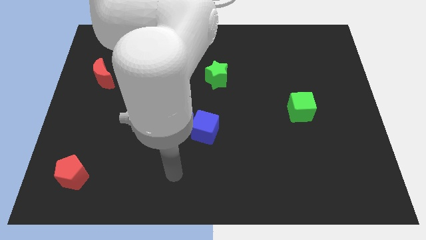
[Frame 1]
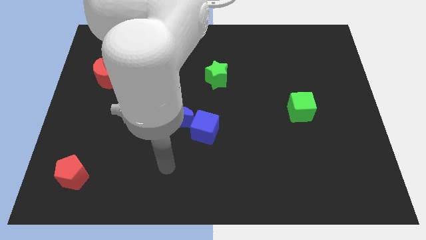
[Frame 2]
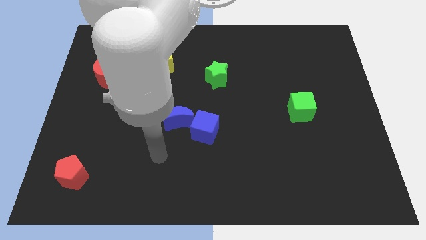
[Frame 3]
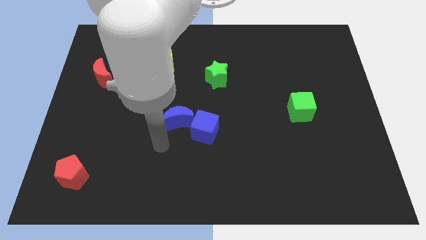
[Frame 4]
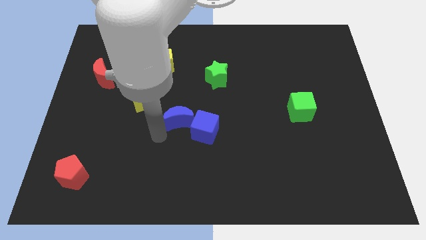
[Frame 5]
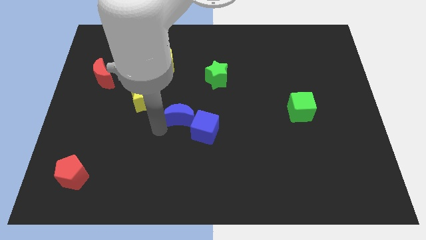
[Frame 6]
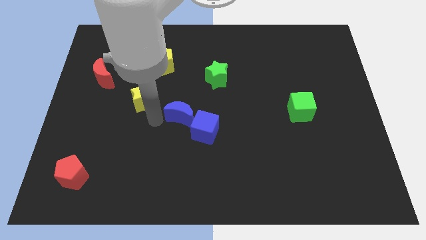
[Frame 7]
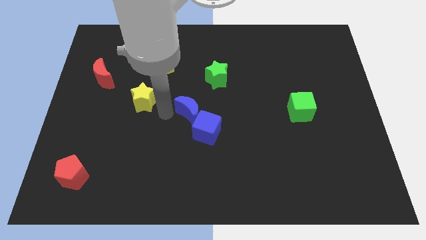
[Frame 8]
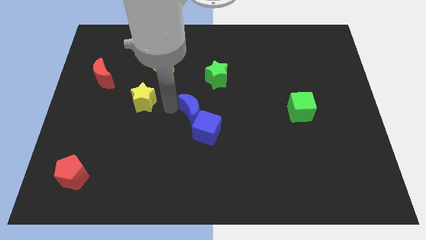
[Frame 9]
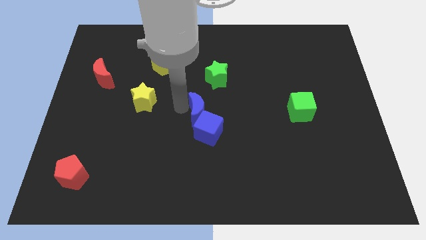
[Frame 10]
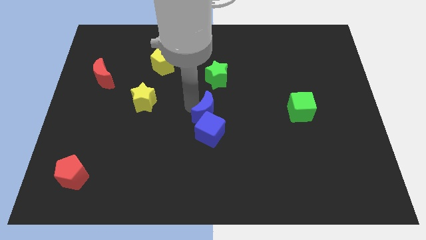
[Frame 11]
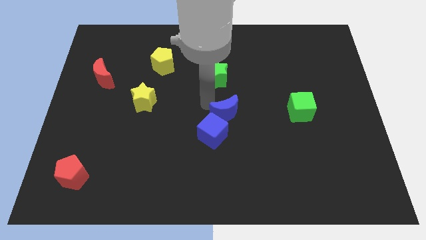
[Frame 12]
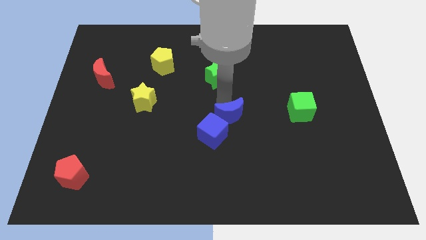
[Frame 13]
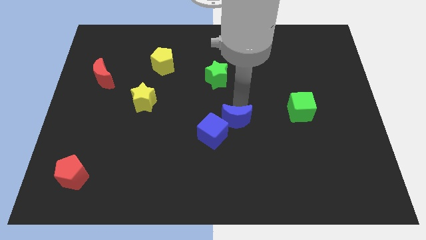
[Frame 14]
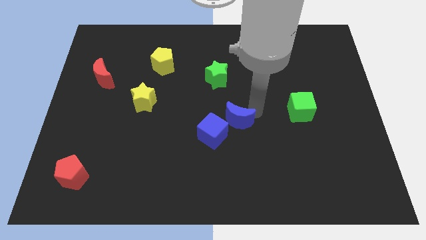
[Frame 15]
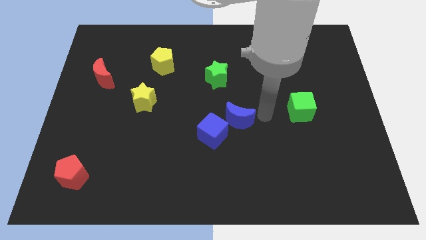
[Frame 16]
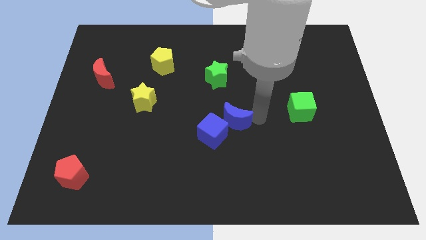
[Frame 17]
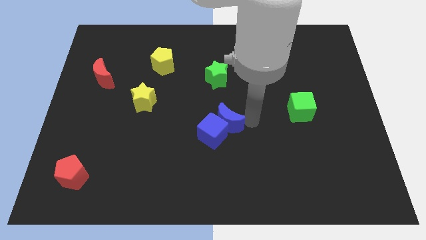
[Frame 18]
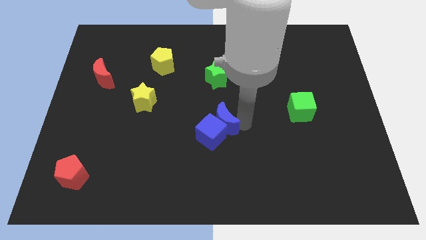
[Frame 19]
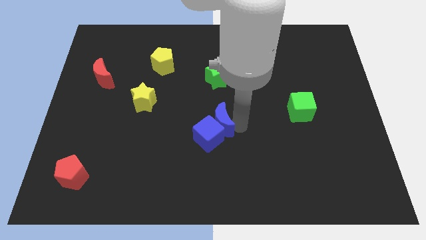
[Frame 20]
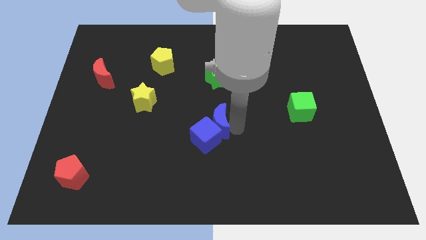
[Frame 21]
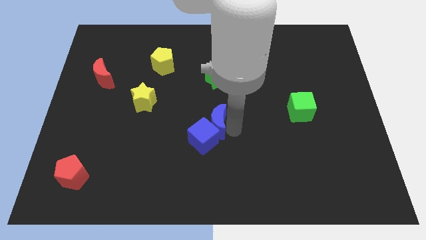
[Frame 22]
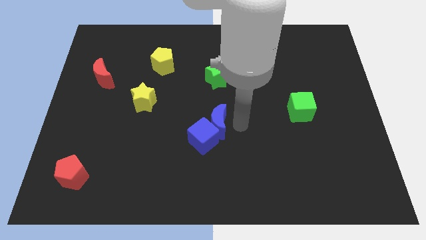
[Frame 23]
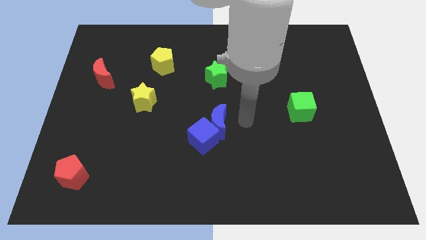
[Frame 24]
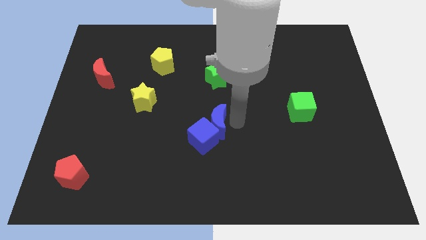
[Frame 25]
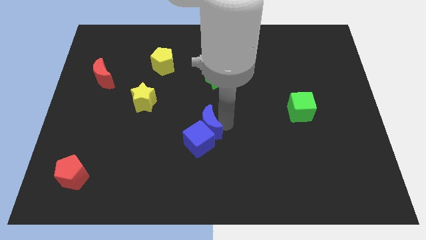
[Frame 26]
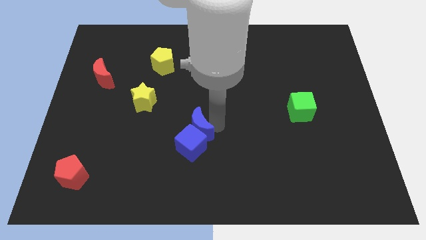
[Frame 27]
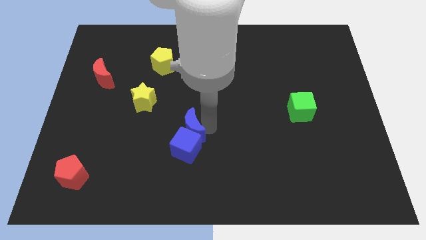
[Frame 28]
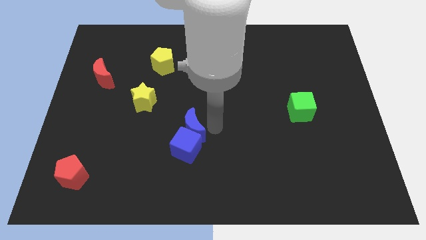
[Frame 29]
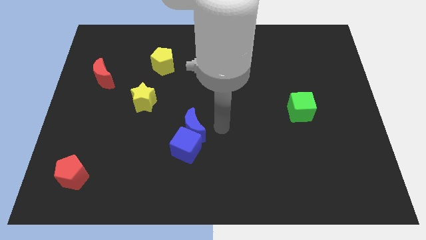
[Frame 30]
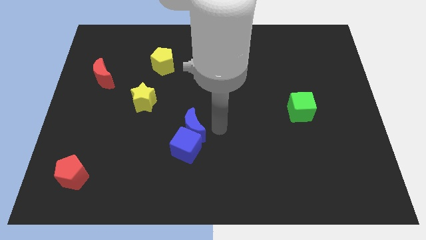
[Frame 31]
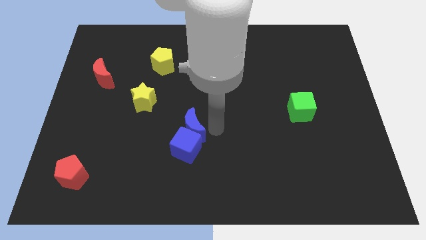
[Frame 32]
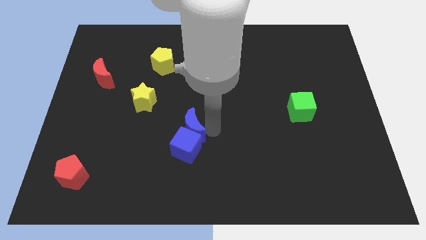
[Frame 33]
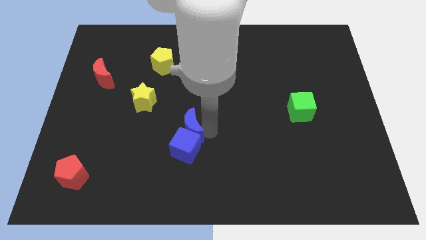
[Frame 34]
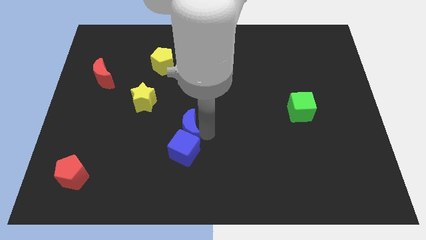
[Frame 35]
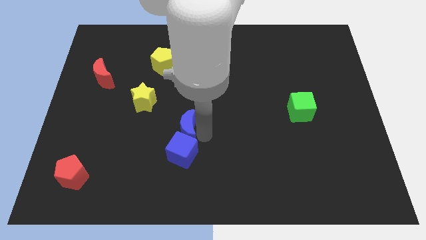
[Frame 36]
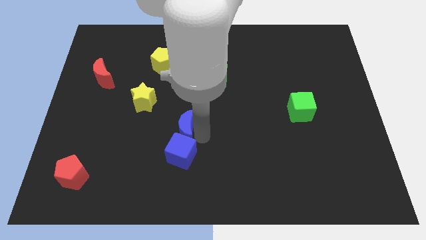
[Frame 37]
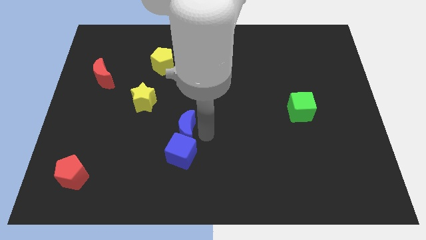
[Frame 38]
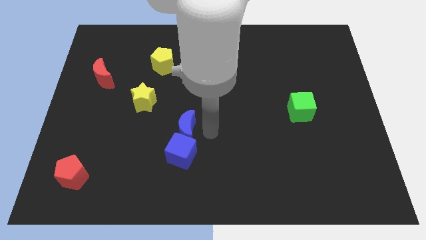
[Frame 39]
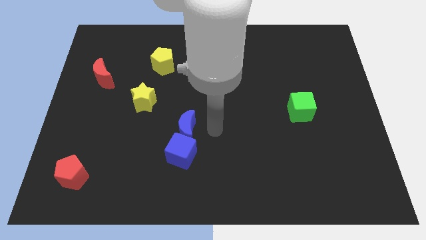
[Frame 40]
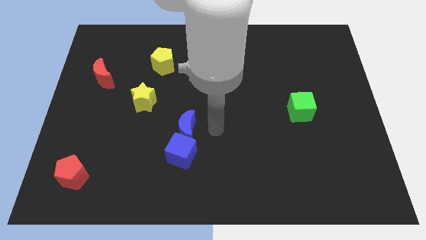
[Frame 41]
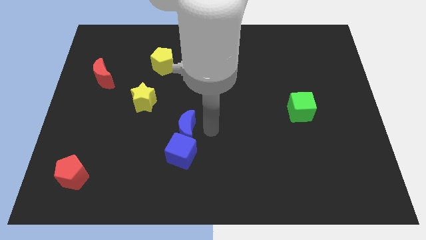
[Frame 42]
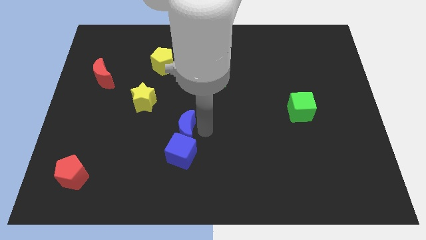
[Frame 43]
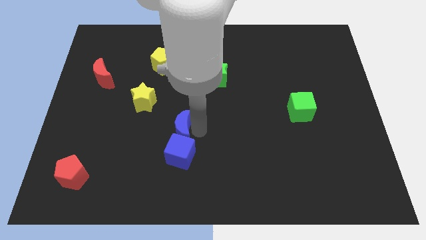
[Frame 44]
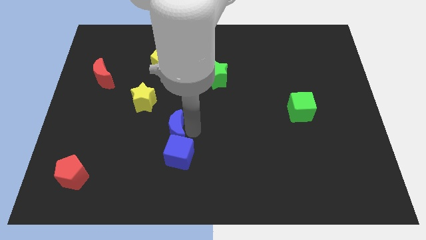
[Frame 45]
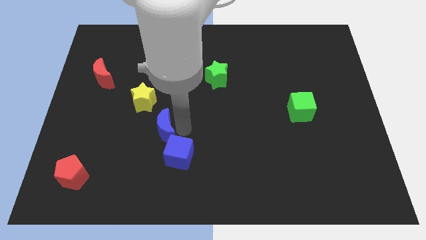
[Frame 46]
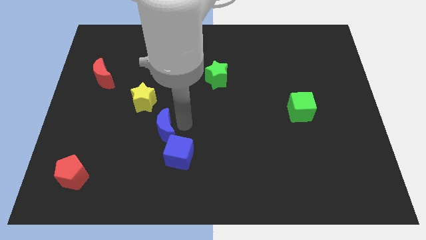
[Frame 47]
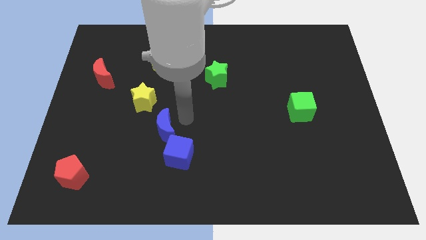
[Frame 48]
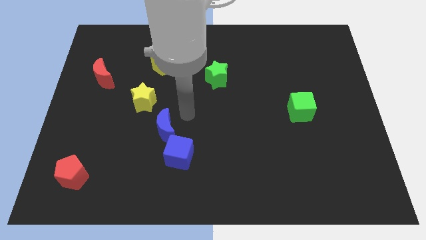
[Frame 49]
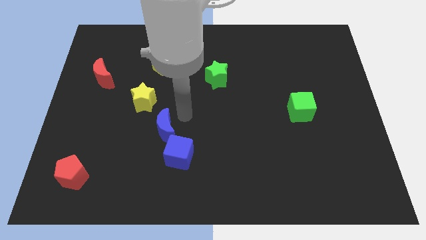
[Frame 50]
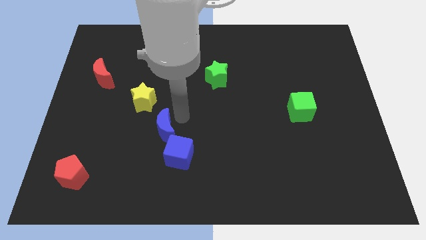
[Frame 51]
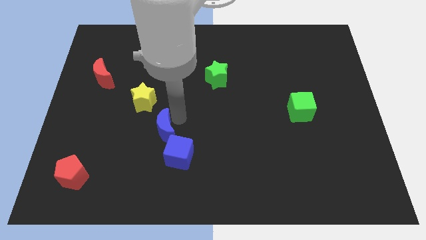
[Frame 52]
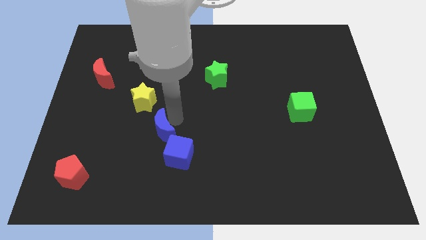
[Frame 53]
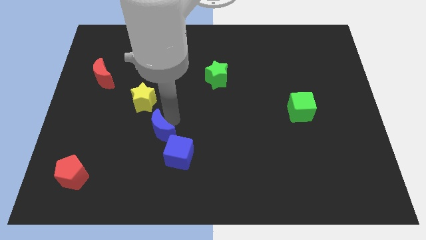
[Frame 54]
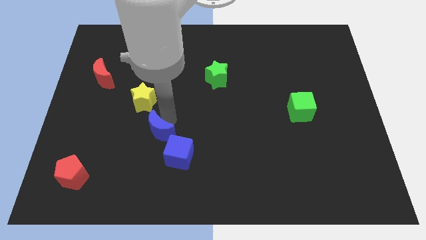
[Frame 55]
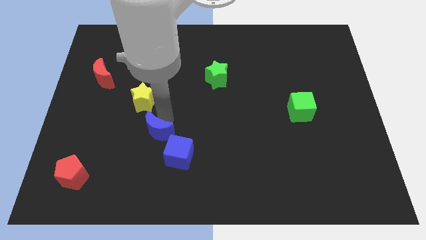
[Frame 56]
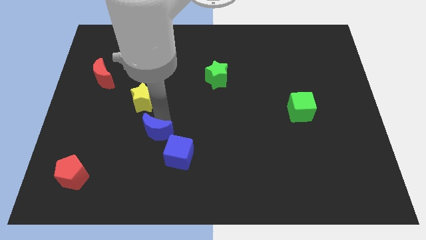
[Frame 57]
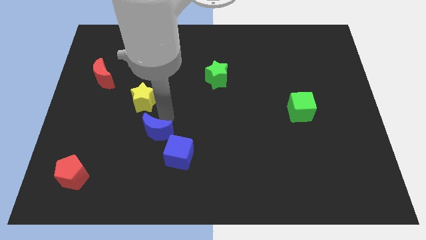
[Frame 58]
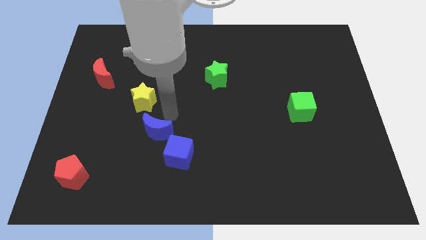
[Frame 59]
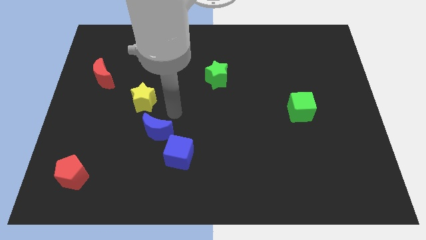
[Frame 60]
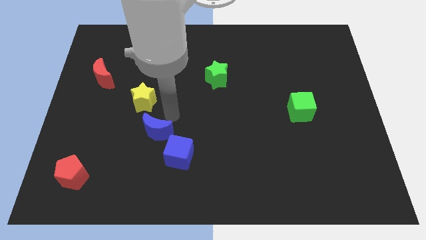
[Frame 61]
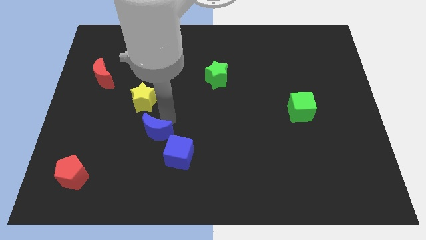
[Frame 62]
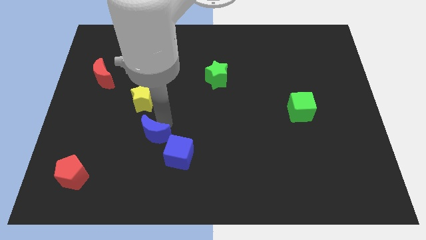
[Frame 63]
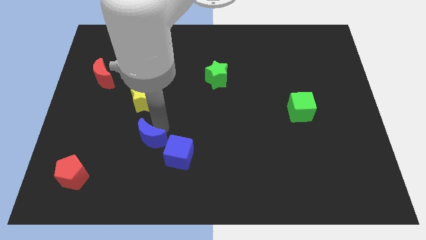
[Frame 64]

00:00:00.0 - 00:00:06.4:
slide the blue moon a bit downwards and then left

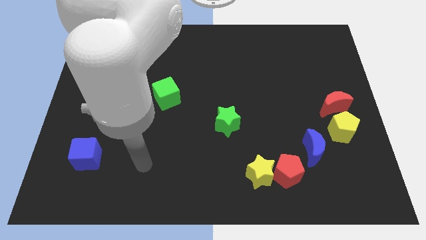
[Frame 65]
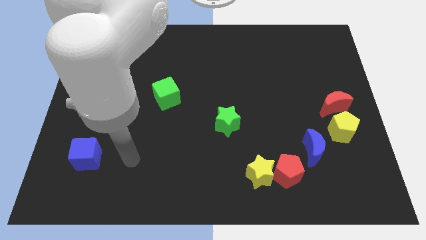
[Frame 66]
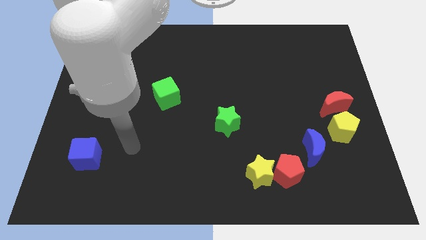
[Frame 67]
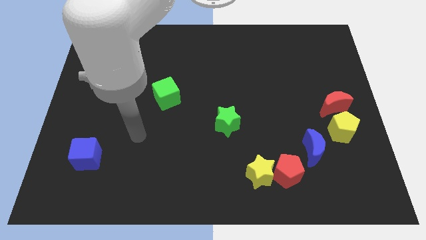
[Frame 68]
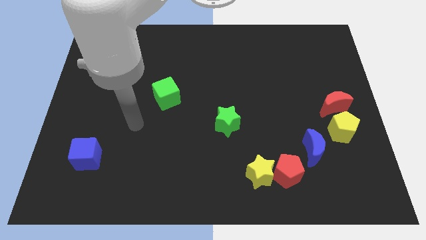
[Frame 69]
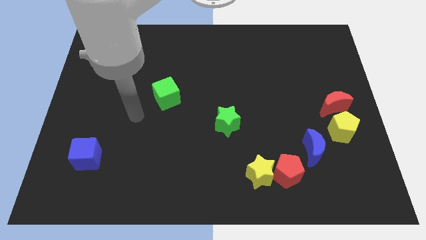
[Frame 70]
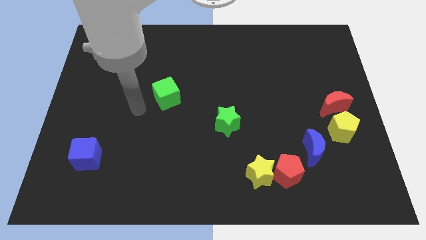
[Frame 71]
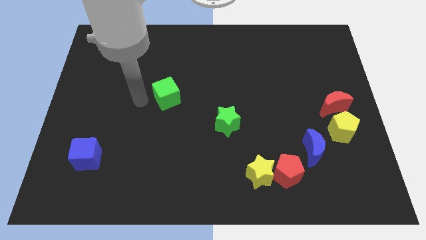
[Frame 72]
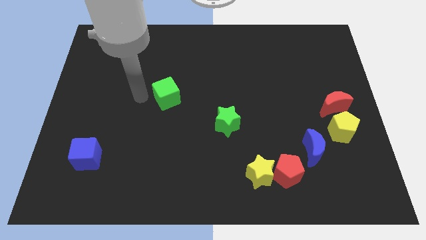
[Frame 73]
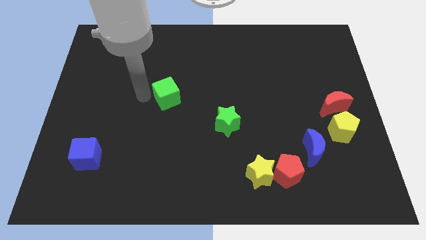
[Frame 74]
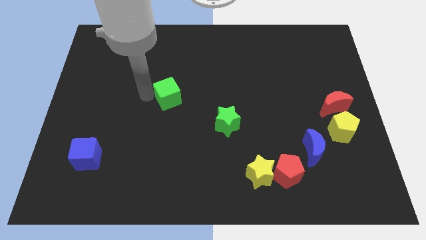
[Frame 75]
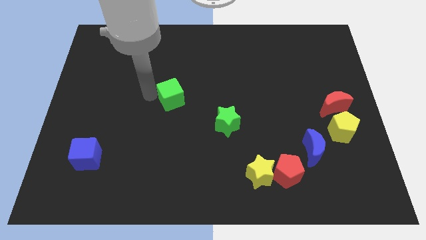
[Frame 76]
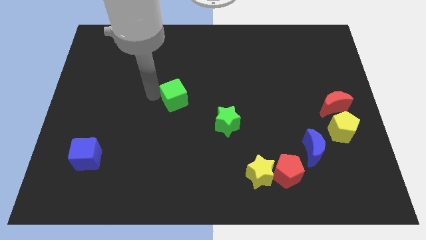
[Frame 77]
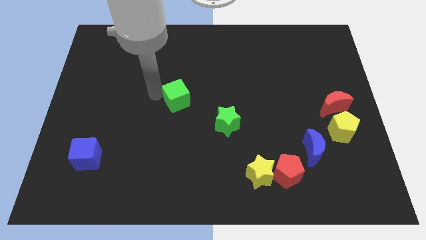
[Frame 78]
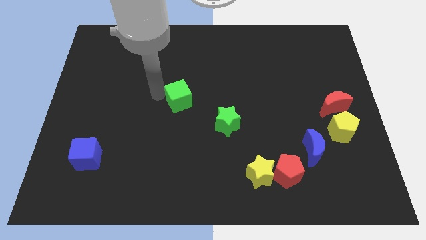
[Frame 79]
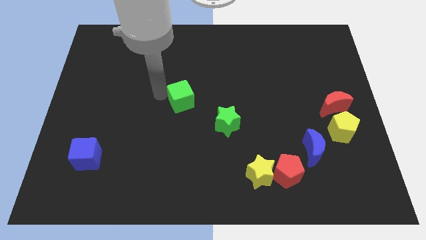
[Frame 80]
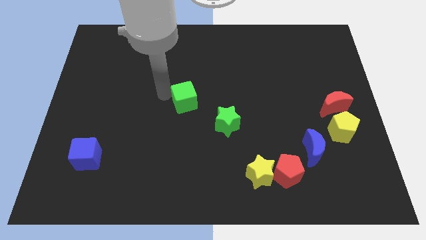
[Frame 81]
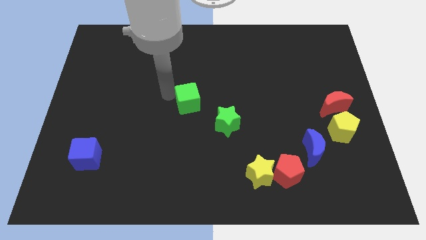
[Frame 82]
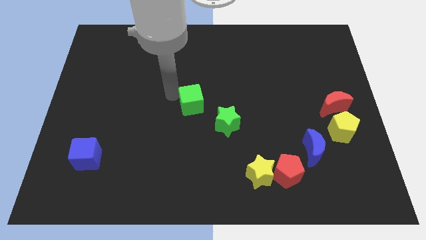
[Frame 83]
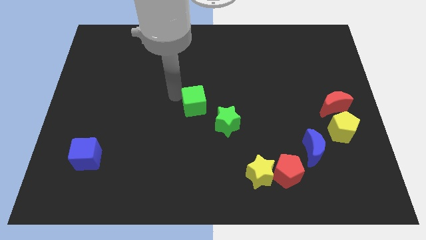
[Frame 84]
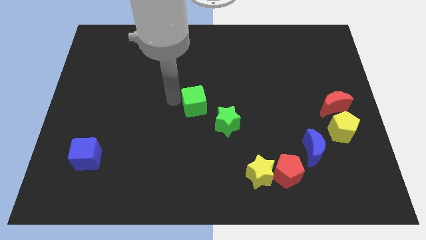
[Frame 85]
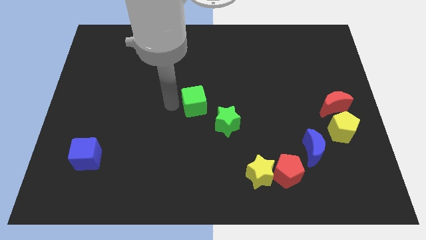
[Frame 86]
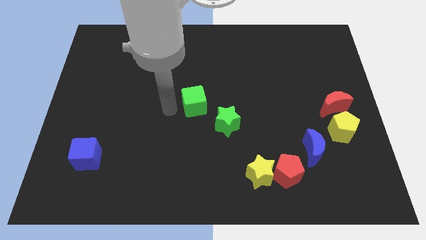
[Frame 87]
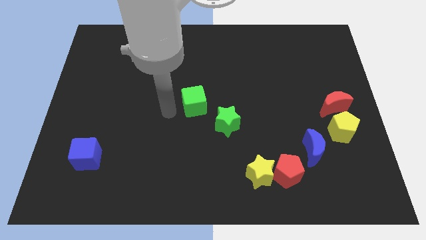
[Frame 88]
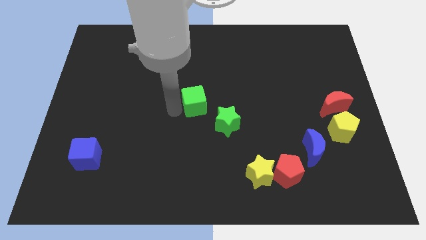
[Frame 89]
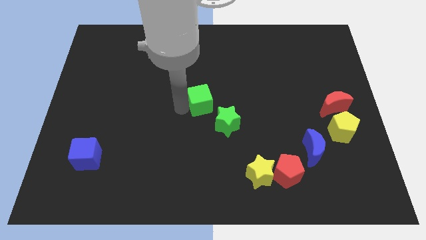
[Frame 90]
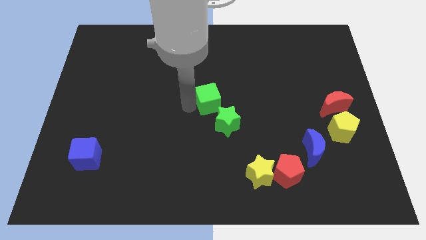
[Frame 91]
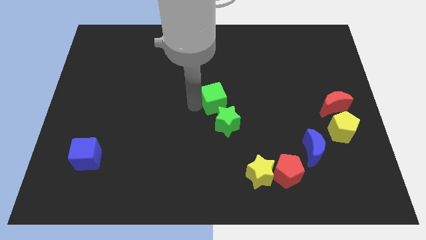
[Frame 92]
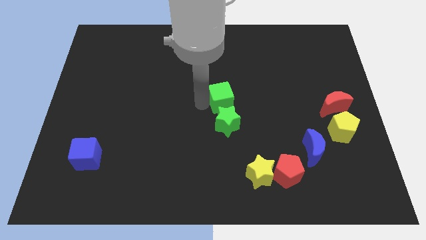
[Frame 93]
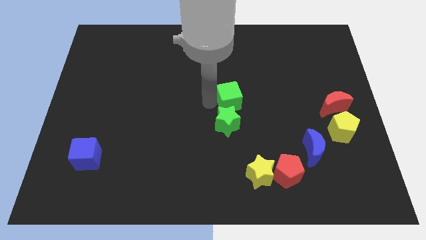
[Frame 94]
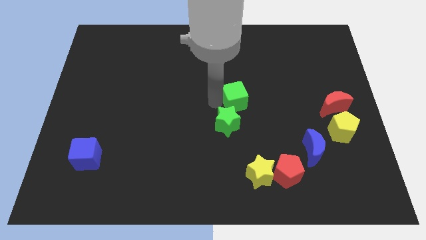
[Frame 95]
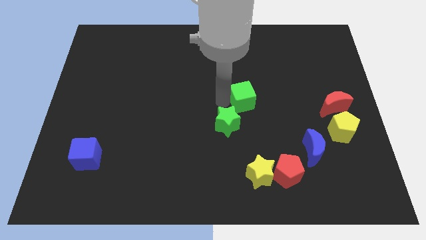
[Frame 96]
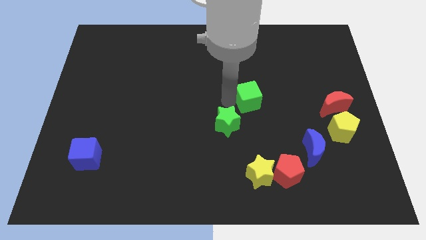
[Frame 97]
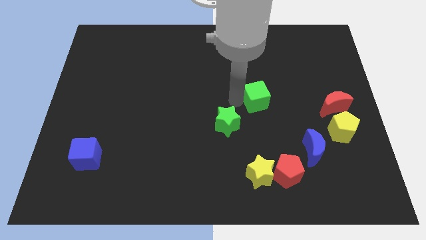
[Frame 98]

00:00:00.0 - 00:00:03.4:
slide the green cube to the right
